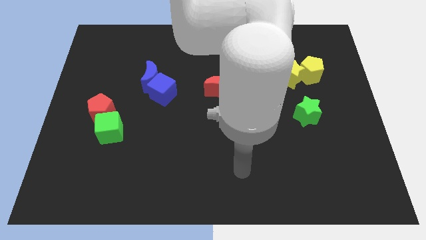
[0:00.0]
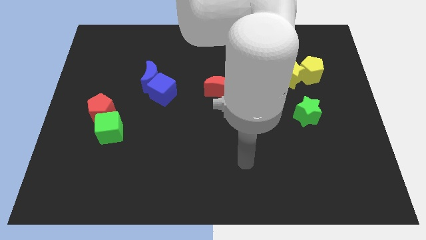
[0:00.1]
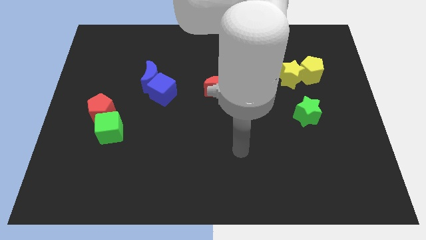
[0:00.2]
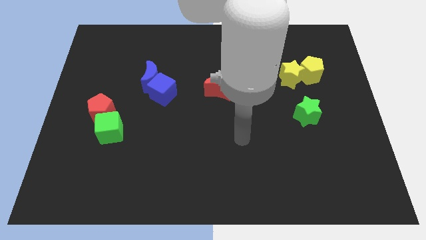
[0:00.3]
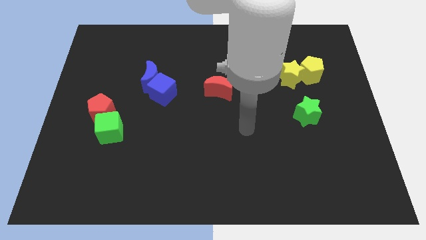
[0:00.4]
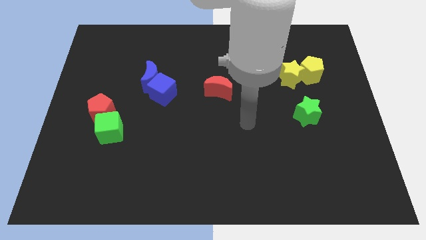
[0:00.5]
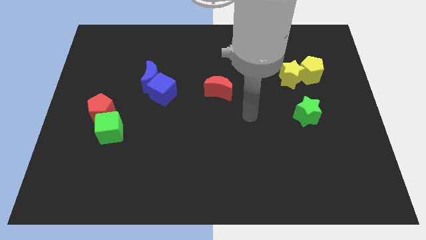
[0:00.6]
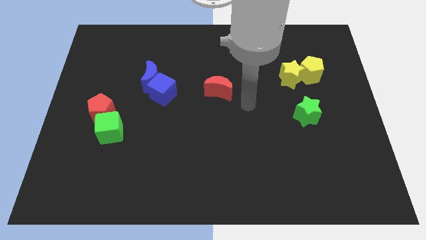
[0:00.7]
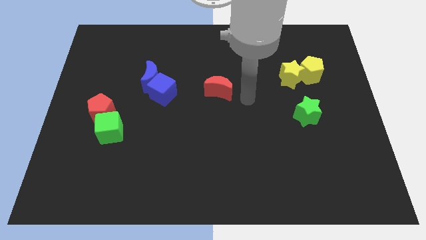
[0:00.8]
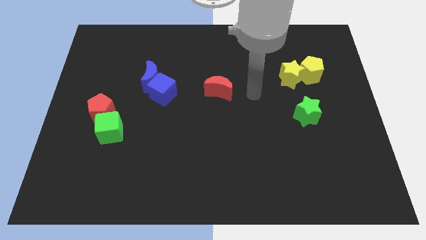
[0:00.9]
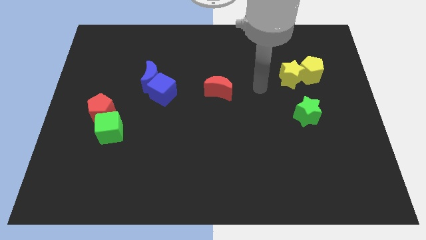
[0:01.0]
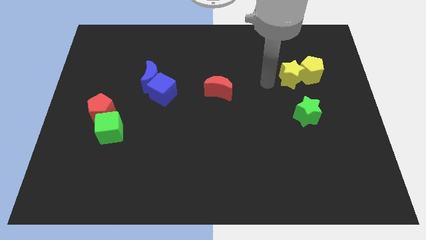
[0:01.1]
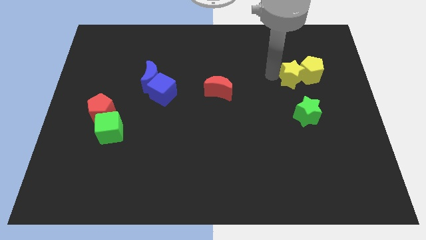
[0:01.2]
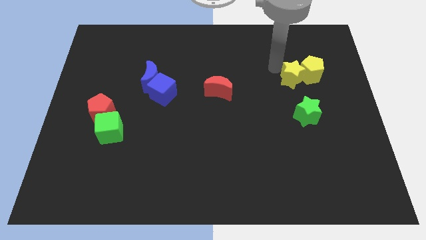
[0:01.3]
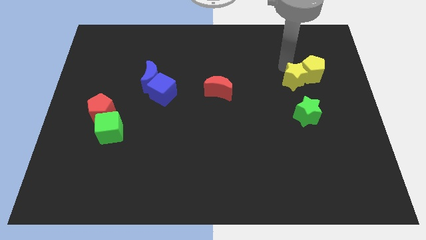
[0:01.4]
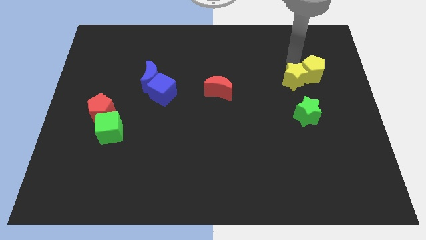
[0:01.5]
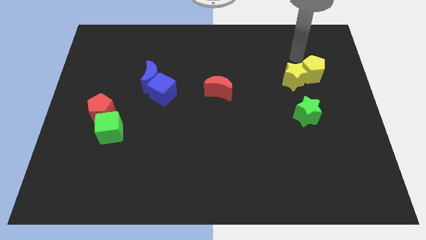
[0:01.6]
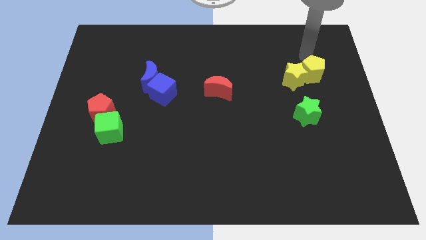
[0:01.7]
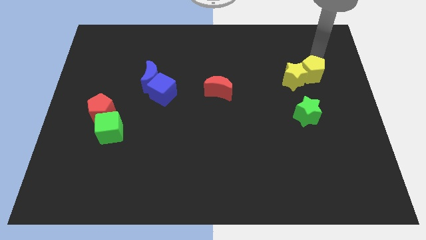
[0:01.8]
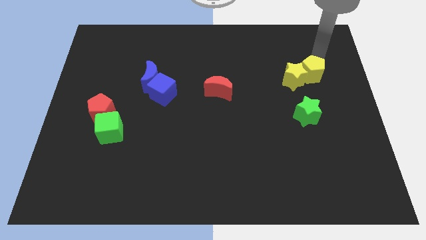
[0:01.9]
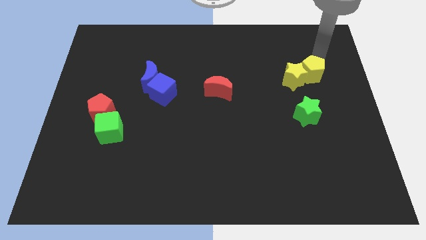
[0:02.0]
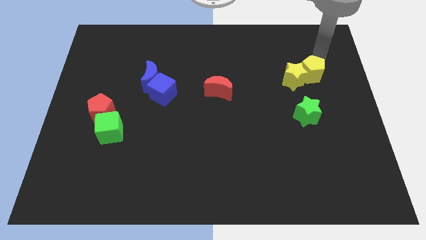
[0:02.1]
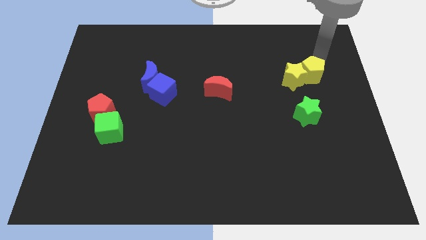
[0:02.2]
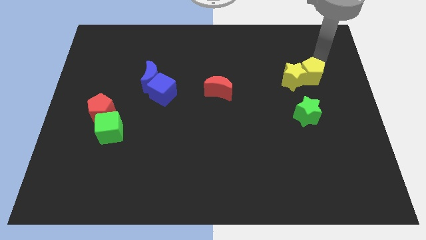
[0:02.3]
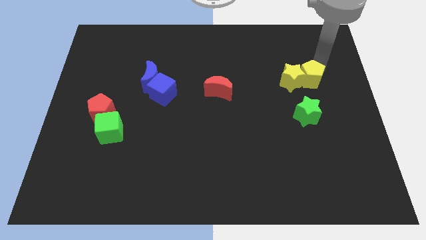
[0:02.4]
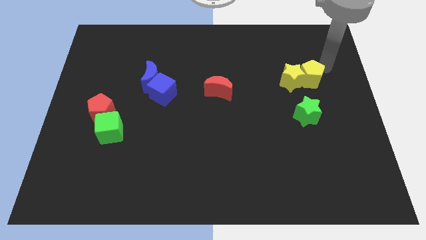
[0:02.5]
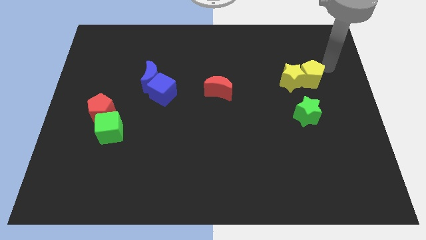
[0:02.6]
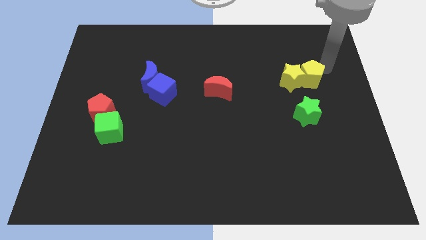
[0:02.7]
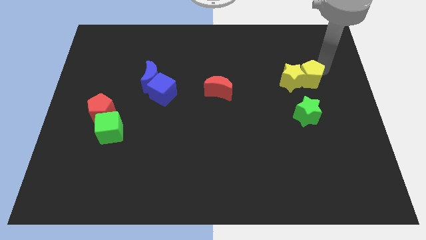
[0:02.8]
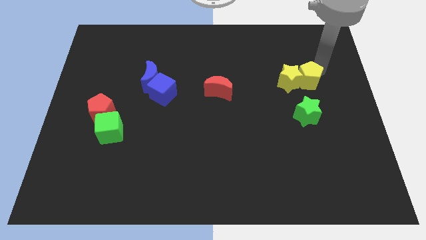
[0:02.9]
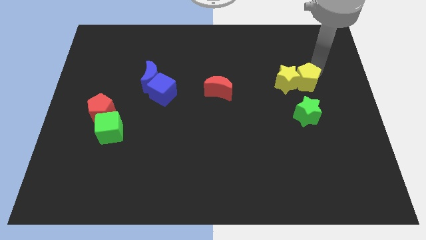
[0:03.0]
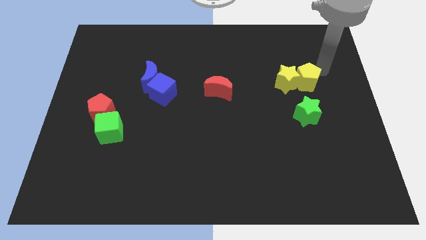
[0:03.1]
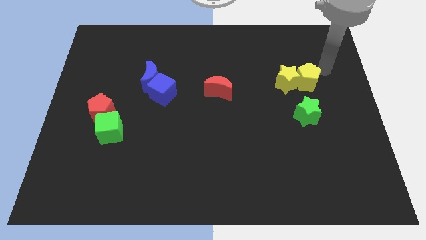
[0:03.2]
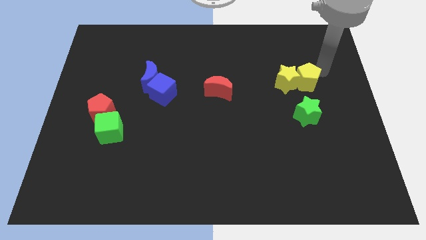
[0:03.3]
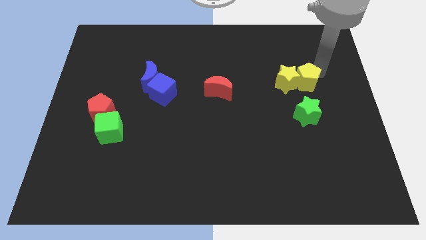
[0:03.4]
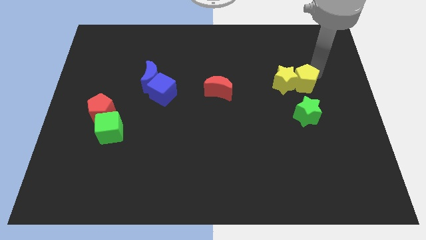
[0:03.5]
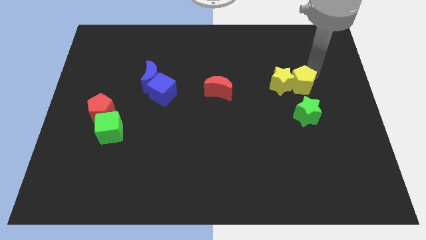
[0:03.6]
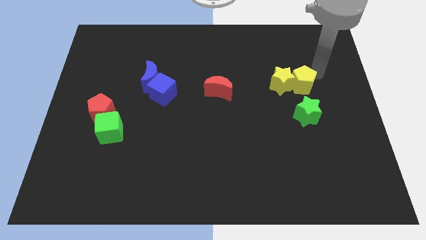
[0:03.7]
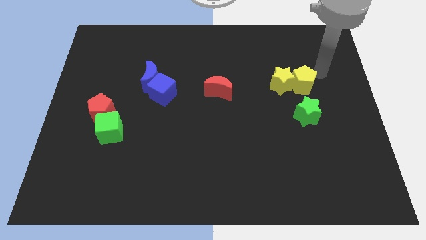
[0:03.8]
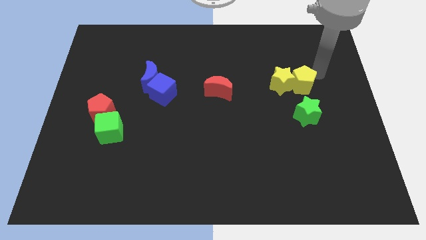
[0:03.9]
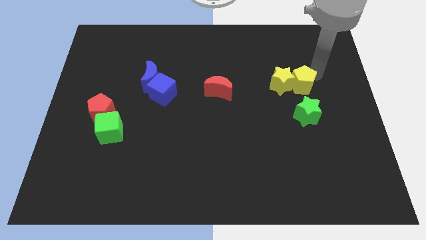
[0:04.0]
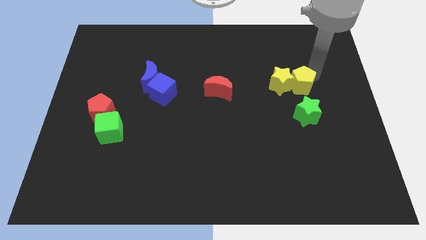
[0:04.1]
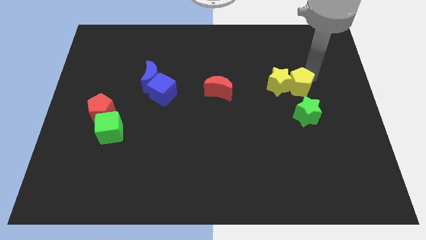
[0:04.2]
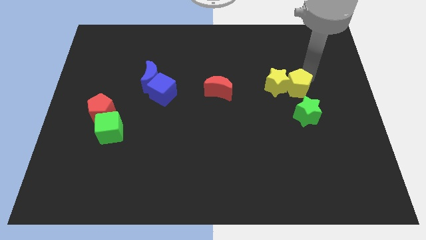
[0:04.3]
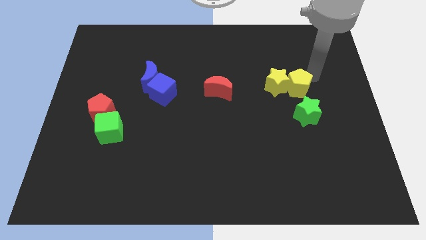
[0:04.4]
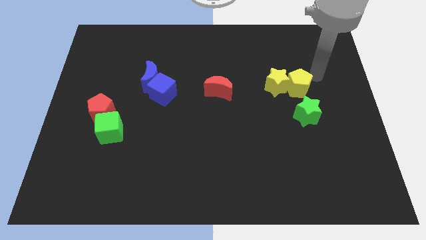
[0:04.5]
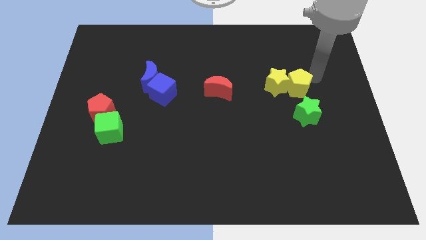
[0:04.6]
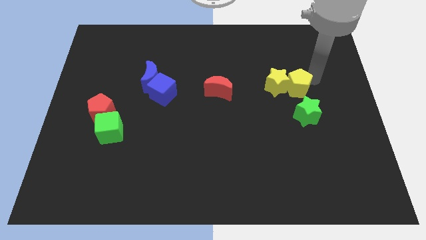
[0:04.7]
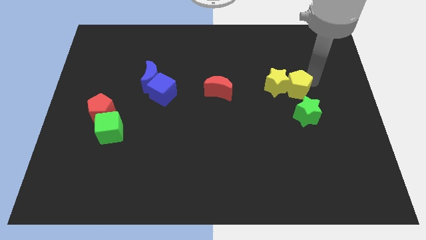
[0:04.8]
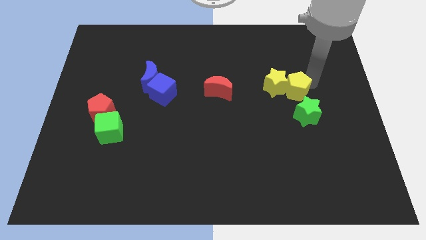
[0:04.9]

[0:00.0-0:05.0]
put the yellow pentagon diagonally up and to the left of the green star

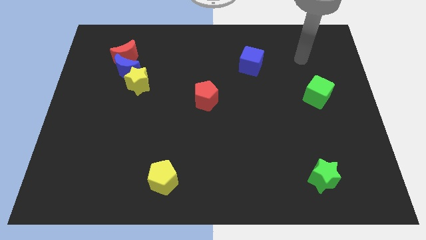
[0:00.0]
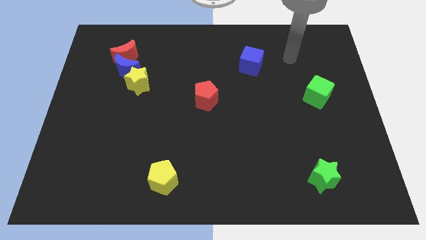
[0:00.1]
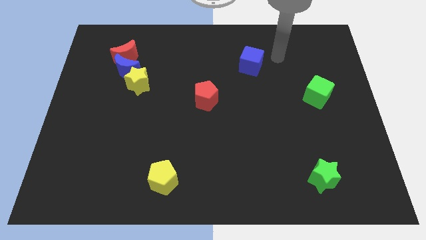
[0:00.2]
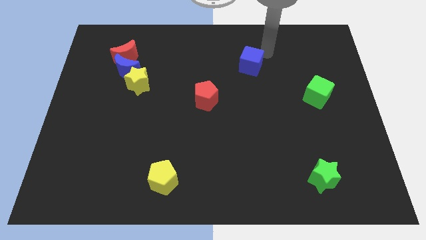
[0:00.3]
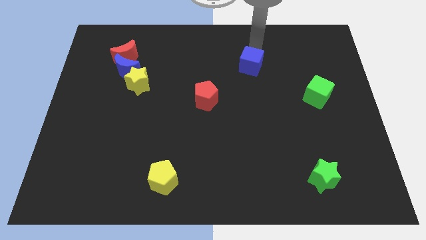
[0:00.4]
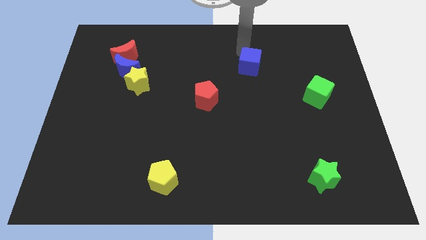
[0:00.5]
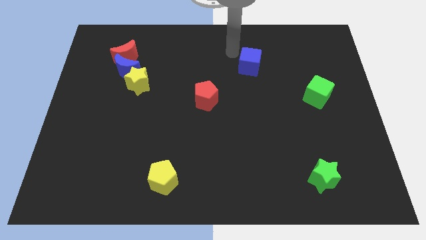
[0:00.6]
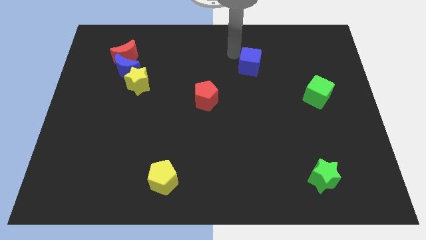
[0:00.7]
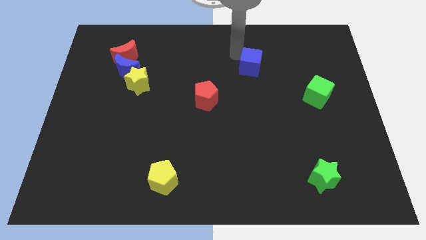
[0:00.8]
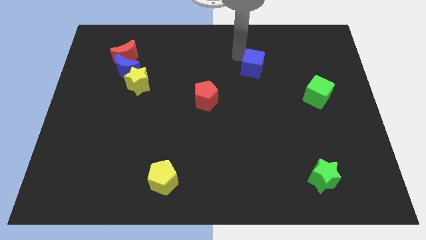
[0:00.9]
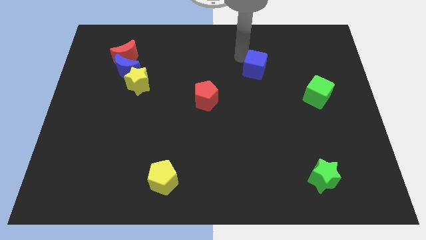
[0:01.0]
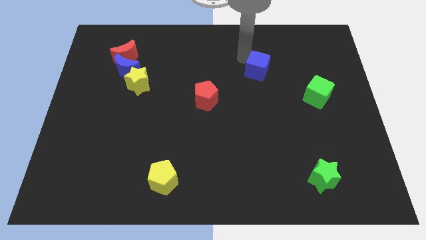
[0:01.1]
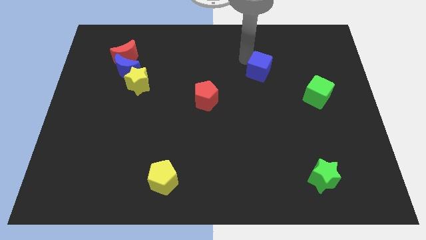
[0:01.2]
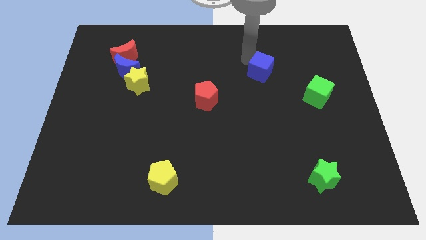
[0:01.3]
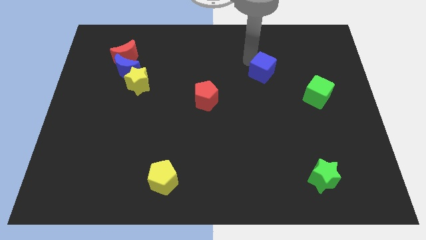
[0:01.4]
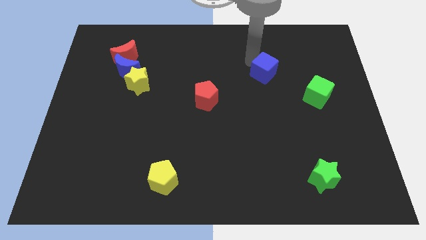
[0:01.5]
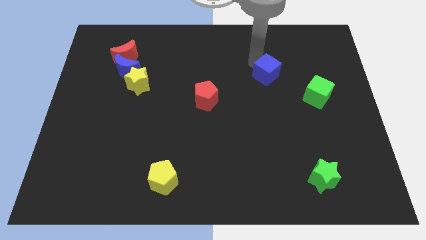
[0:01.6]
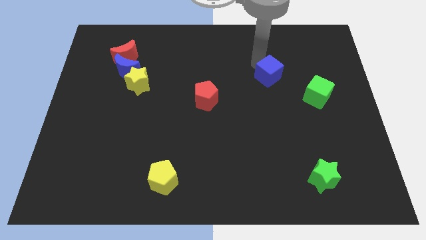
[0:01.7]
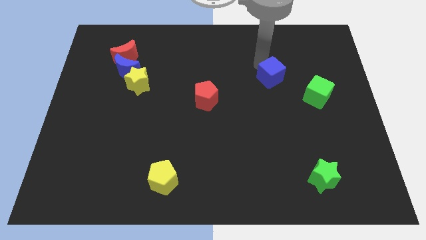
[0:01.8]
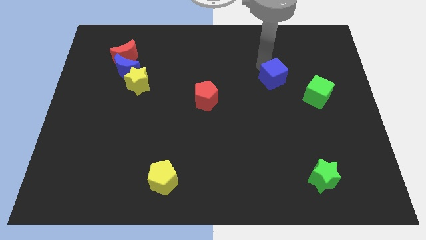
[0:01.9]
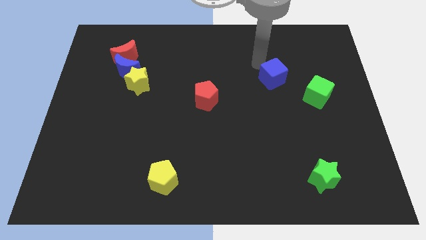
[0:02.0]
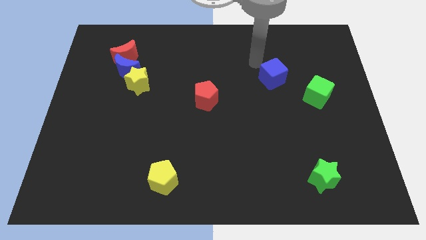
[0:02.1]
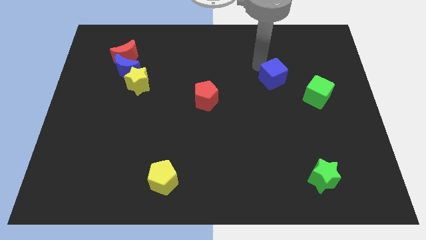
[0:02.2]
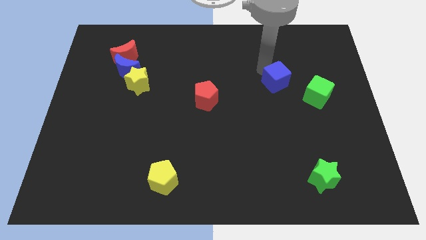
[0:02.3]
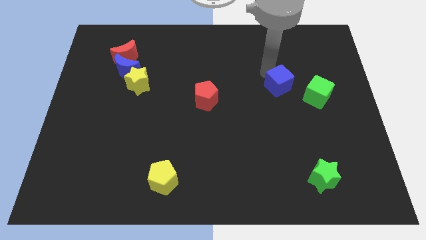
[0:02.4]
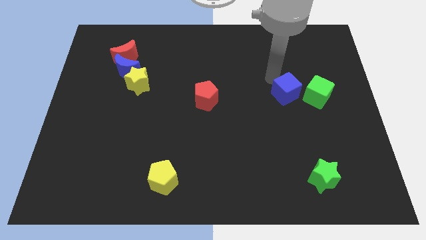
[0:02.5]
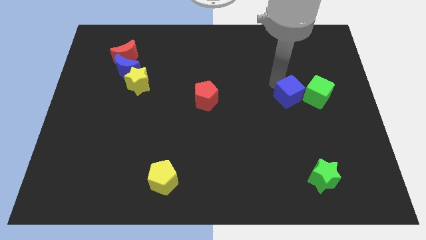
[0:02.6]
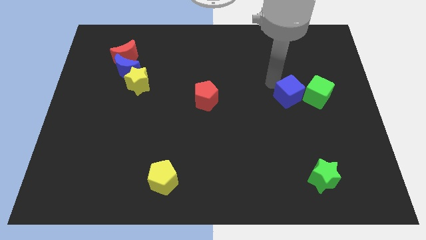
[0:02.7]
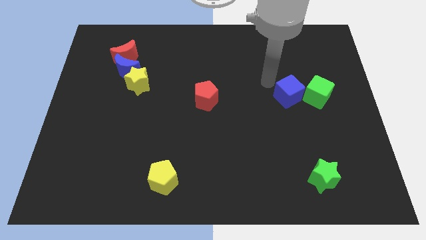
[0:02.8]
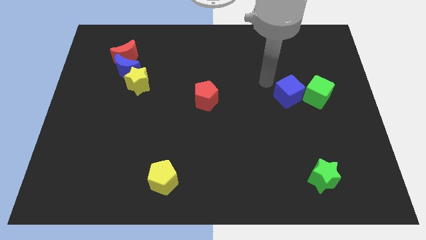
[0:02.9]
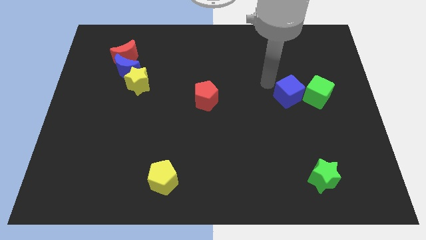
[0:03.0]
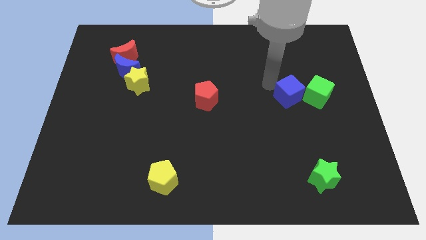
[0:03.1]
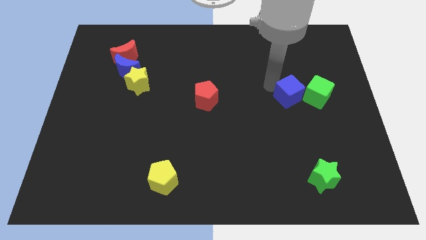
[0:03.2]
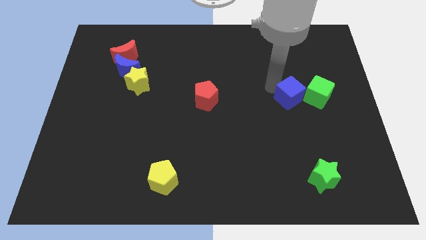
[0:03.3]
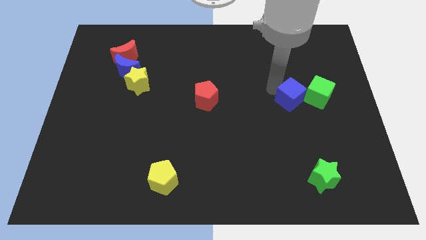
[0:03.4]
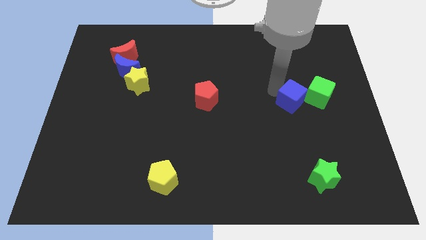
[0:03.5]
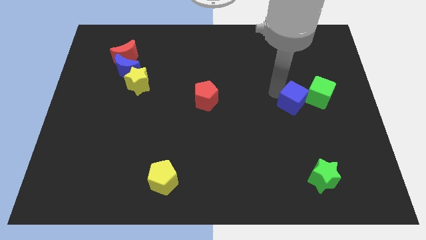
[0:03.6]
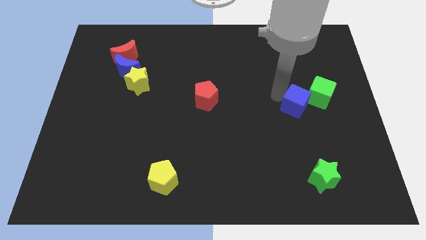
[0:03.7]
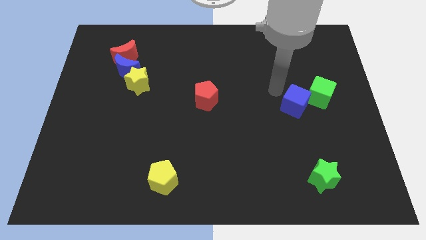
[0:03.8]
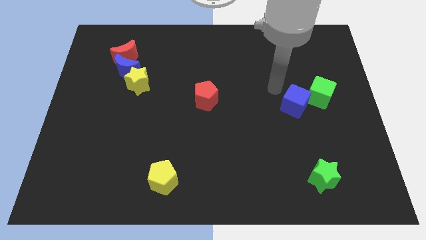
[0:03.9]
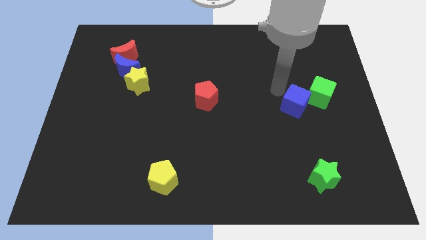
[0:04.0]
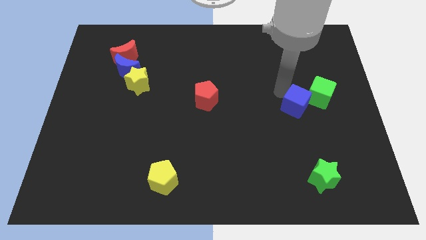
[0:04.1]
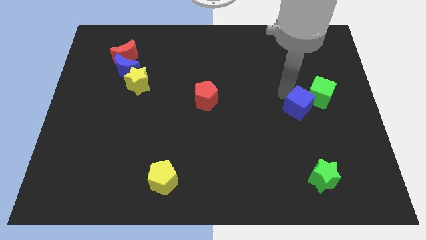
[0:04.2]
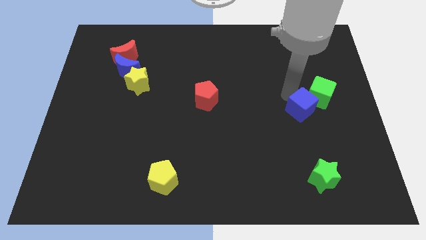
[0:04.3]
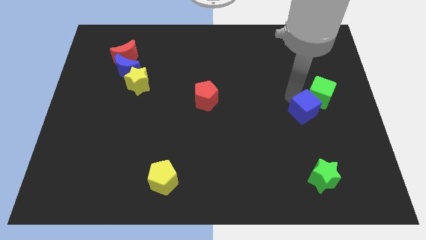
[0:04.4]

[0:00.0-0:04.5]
move the blue cube to the bottom of the green cube
